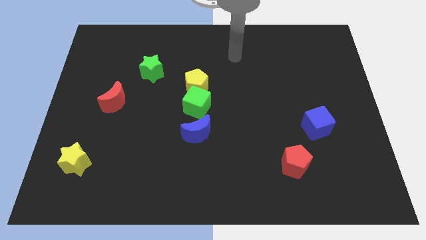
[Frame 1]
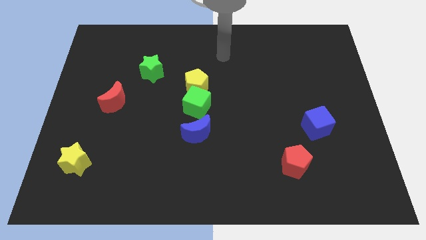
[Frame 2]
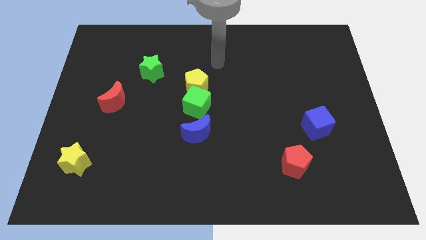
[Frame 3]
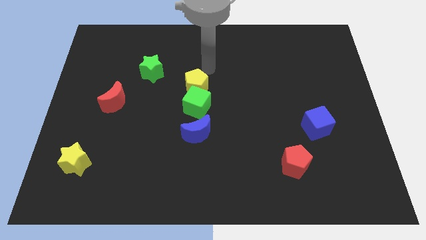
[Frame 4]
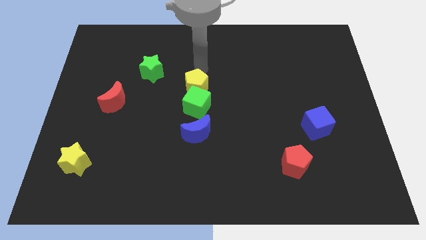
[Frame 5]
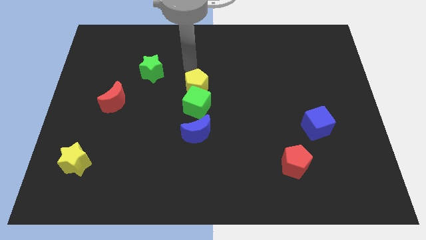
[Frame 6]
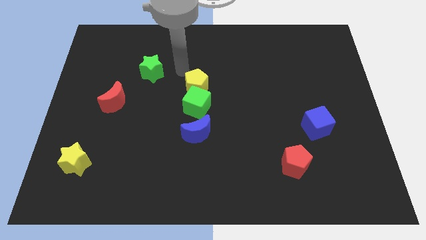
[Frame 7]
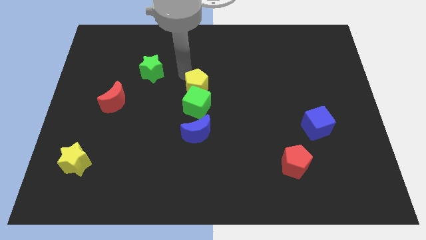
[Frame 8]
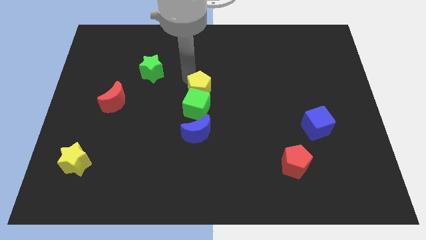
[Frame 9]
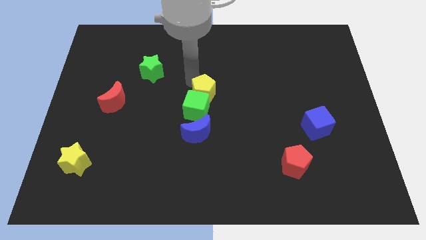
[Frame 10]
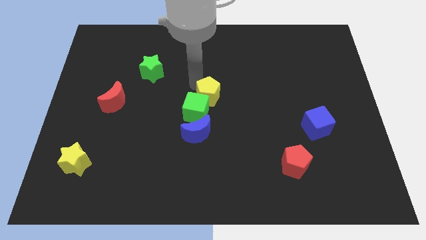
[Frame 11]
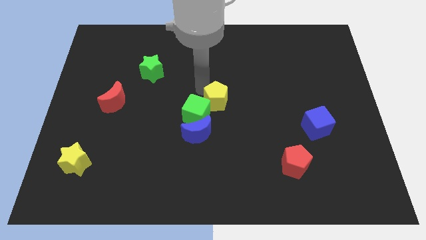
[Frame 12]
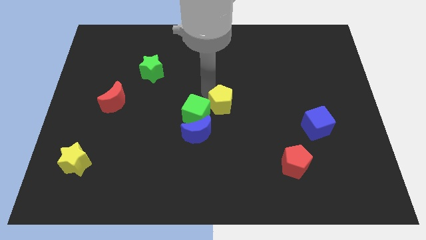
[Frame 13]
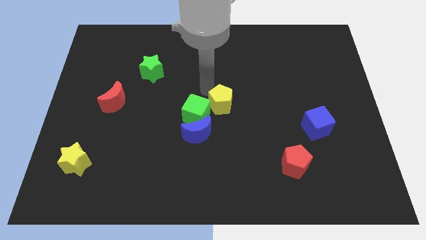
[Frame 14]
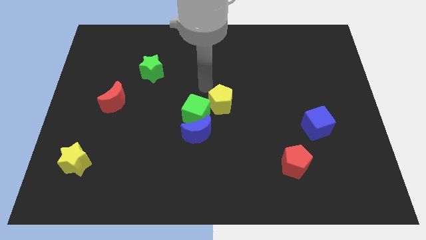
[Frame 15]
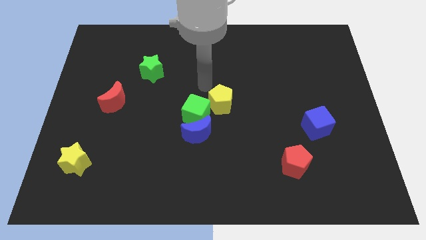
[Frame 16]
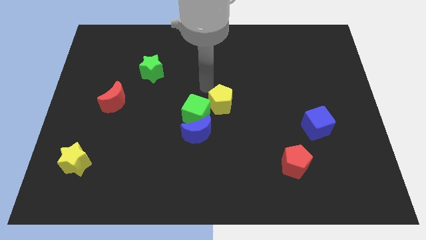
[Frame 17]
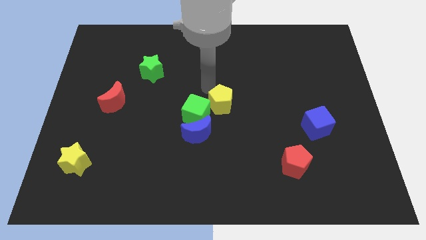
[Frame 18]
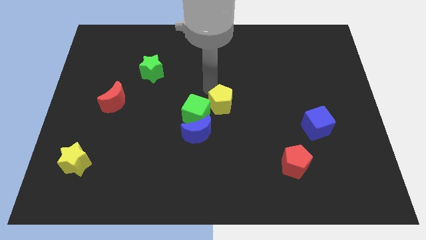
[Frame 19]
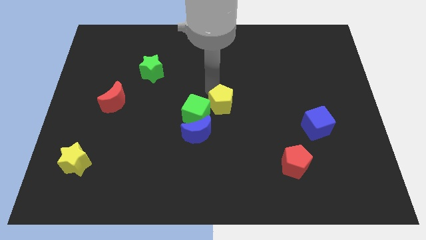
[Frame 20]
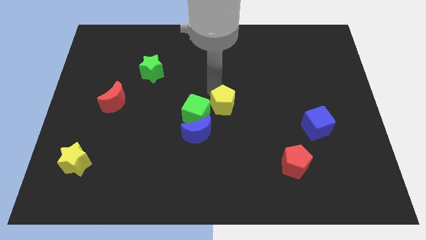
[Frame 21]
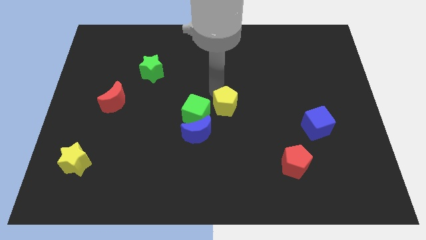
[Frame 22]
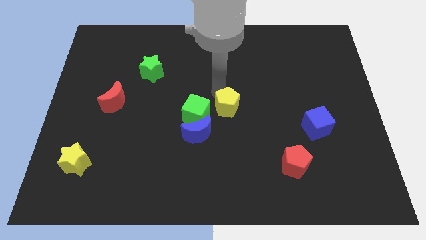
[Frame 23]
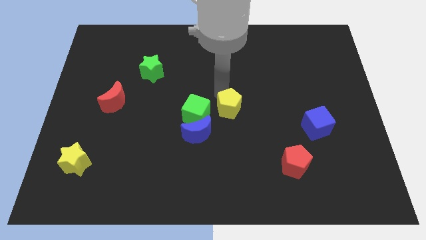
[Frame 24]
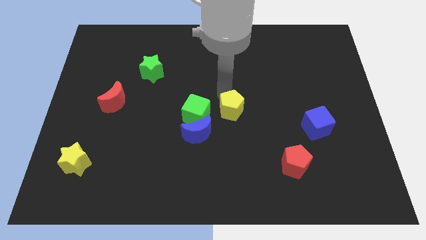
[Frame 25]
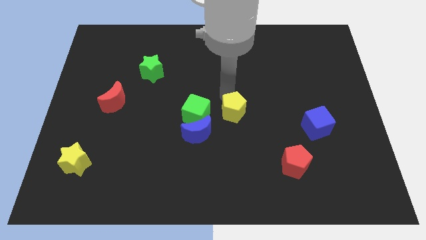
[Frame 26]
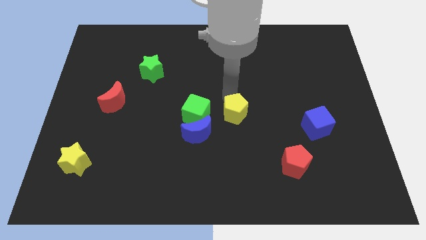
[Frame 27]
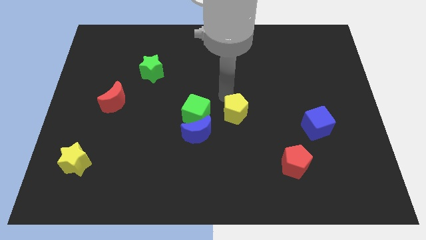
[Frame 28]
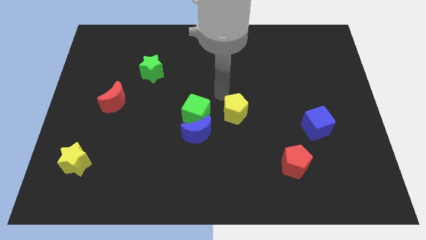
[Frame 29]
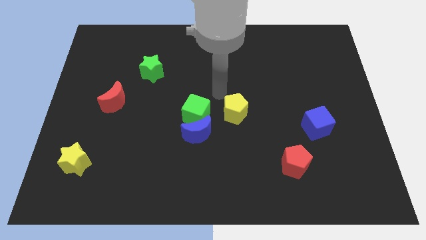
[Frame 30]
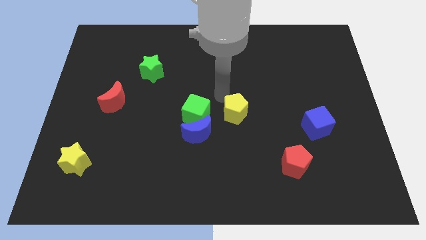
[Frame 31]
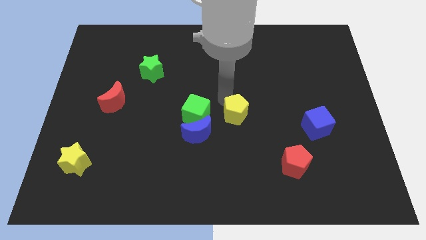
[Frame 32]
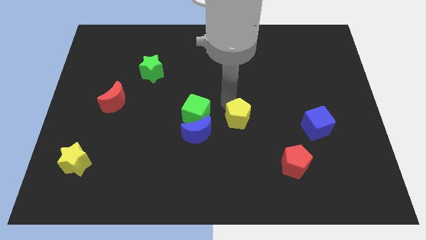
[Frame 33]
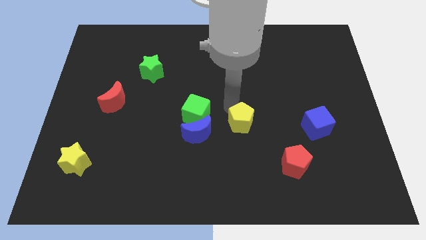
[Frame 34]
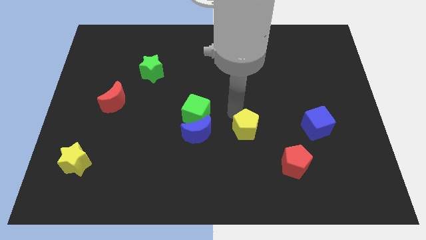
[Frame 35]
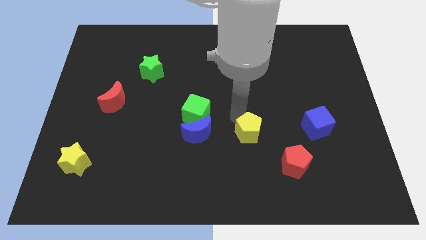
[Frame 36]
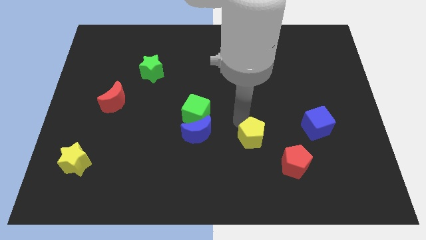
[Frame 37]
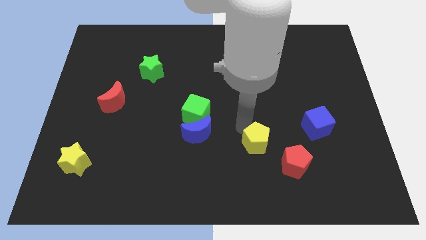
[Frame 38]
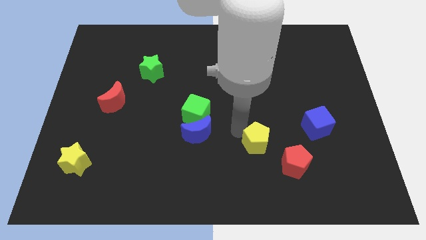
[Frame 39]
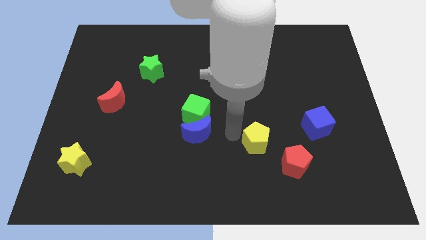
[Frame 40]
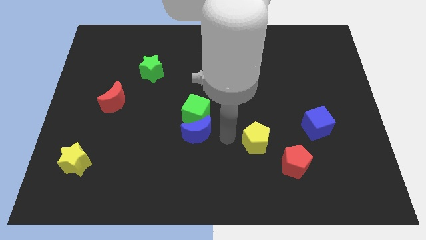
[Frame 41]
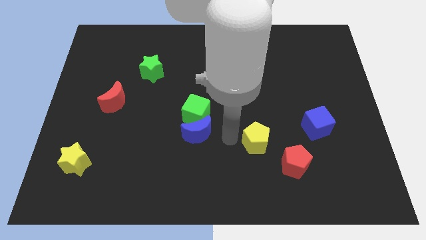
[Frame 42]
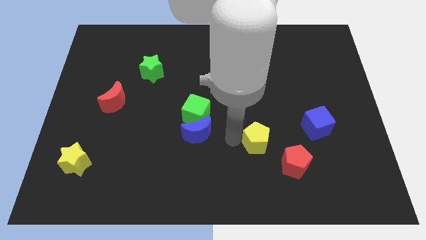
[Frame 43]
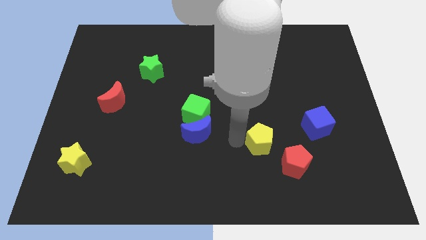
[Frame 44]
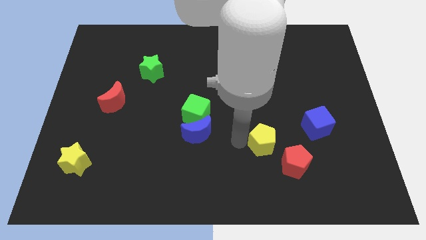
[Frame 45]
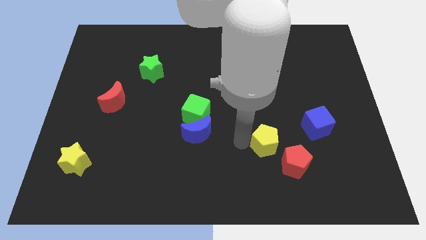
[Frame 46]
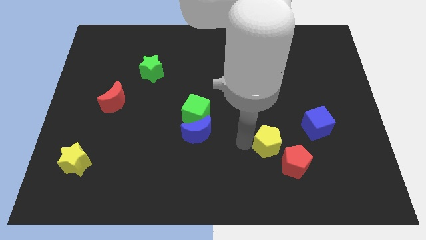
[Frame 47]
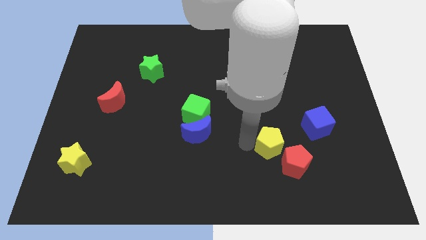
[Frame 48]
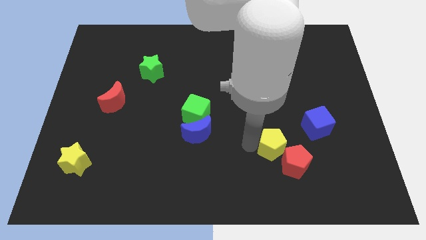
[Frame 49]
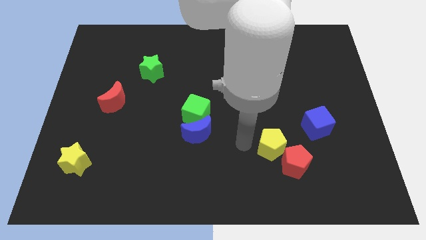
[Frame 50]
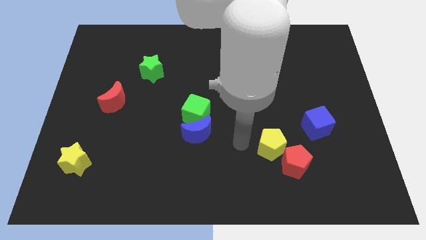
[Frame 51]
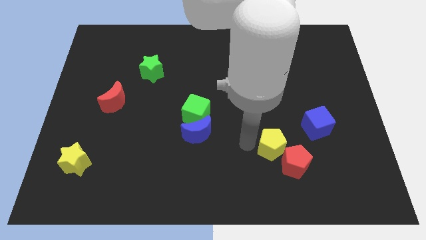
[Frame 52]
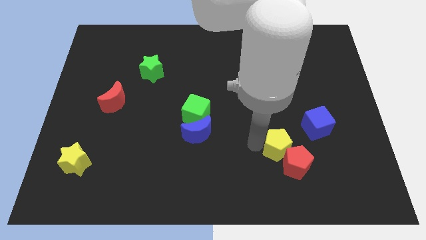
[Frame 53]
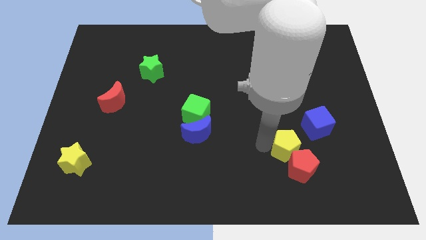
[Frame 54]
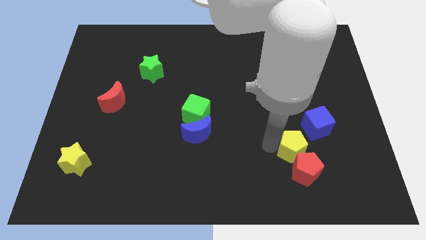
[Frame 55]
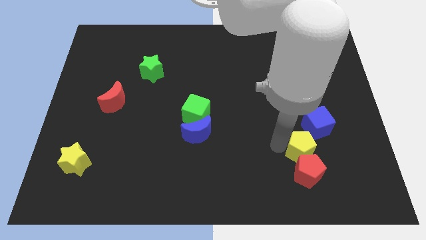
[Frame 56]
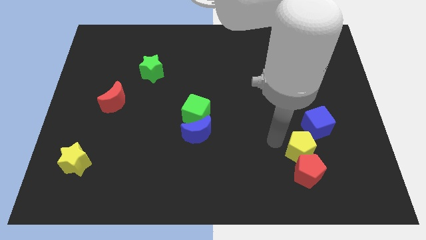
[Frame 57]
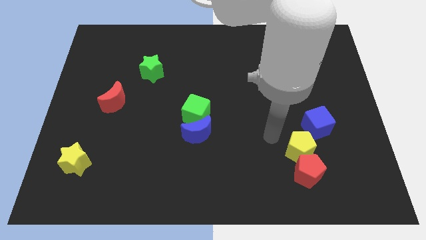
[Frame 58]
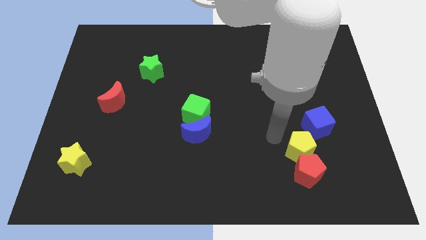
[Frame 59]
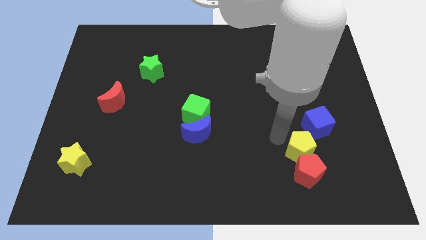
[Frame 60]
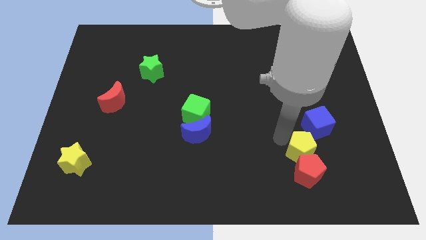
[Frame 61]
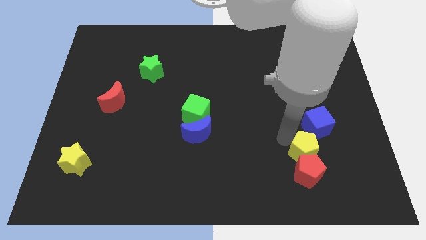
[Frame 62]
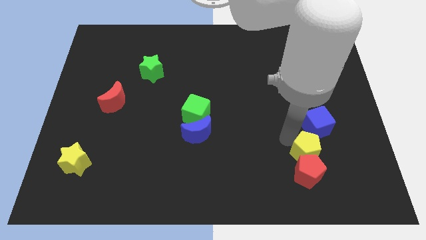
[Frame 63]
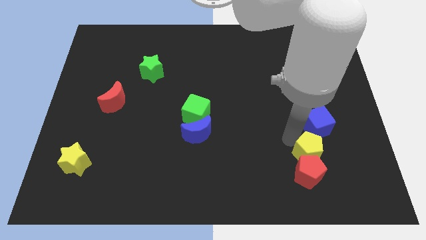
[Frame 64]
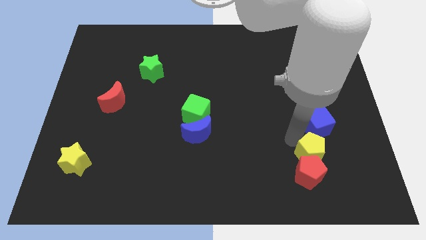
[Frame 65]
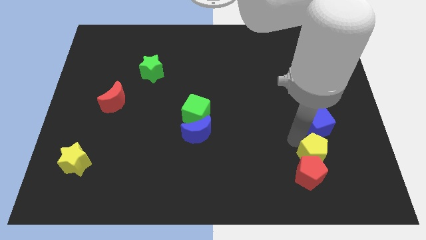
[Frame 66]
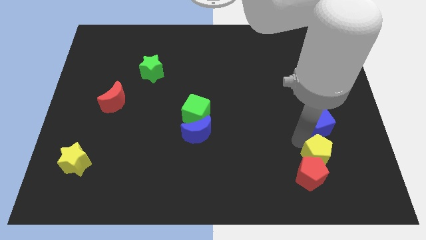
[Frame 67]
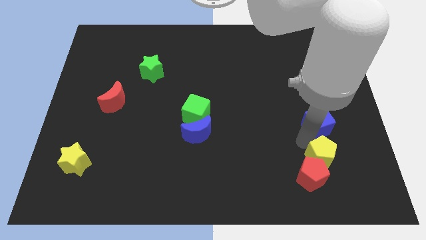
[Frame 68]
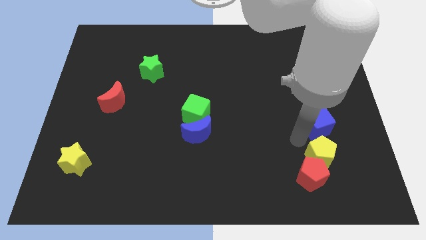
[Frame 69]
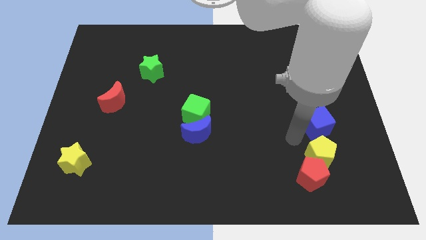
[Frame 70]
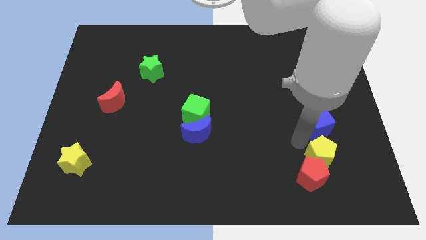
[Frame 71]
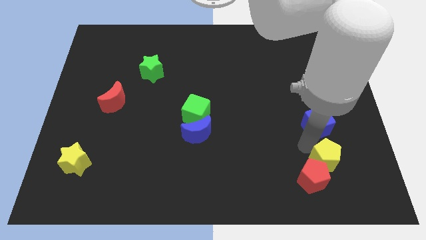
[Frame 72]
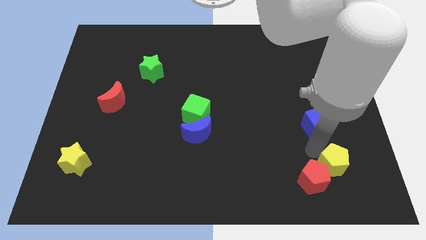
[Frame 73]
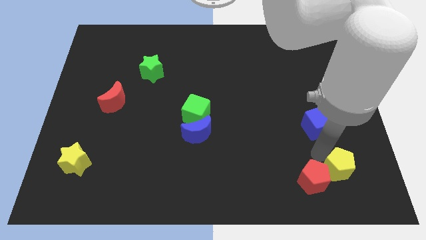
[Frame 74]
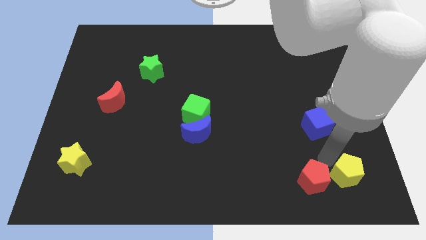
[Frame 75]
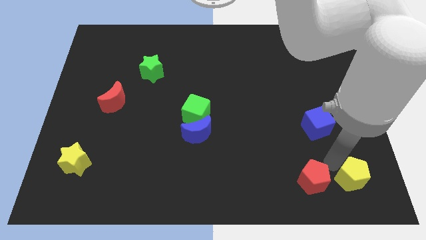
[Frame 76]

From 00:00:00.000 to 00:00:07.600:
slide the yellow pentagon to the lower right corner
